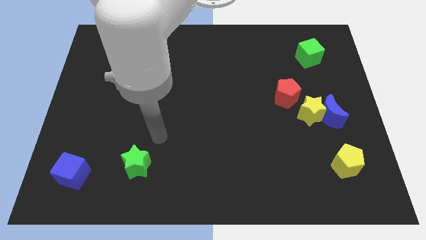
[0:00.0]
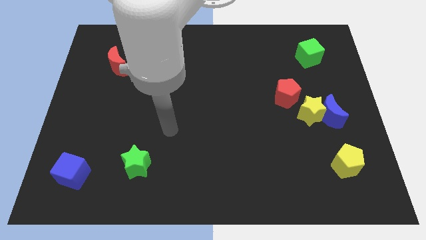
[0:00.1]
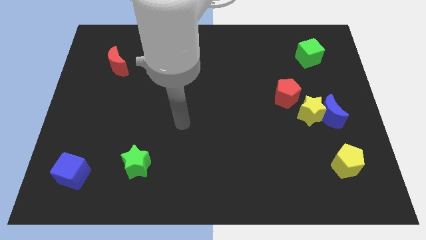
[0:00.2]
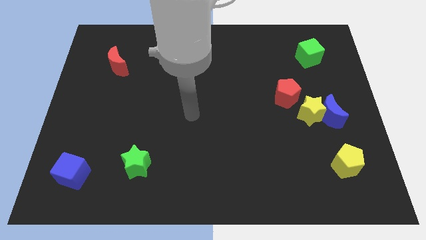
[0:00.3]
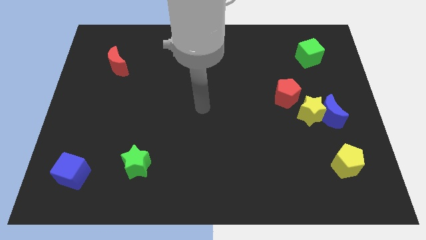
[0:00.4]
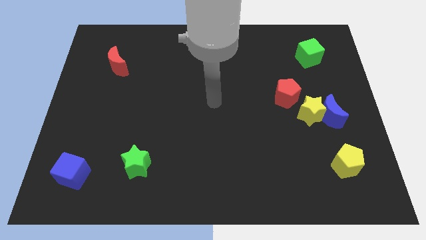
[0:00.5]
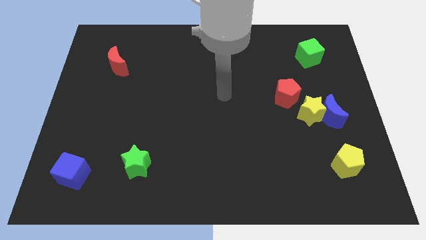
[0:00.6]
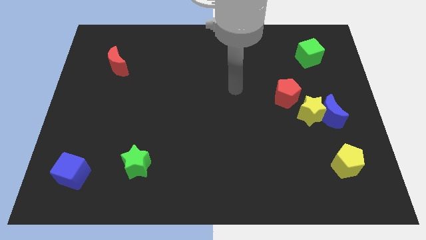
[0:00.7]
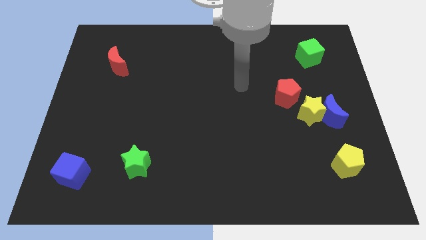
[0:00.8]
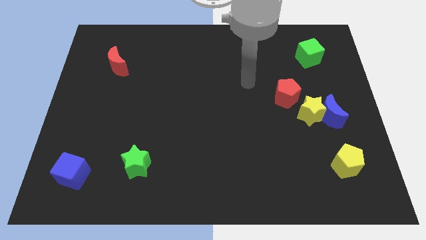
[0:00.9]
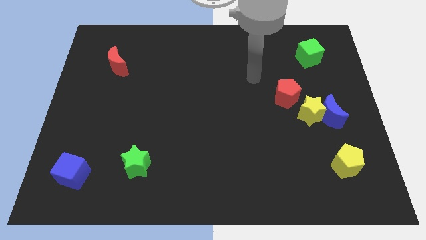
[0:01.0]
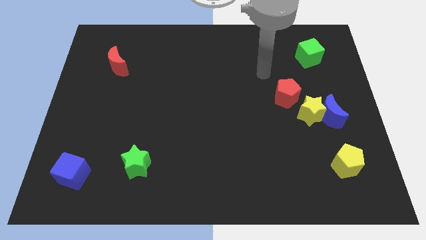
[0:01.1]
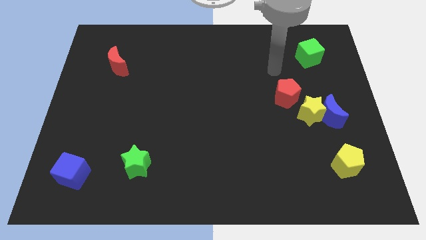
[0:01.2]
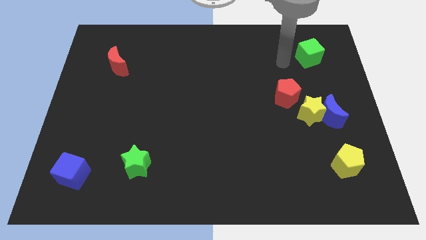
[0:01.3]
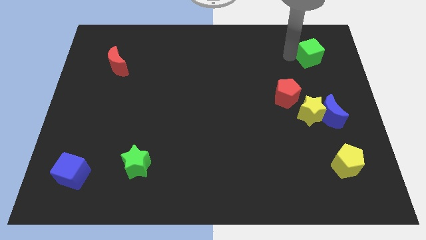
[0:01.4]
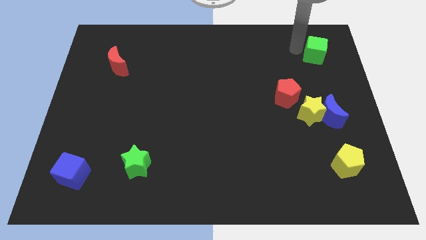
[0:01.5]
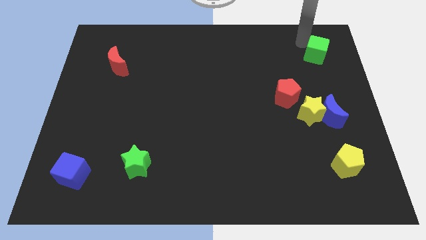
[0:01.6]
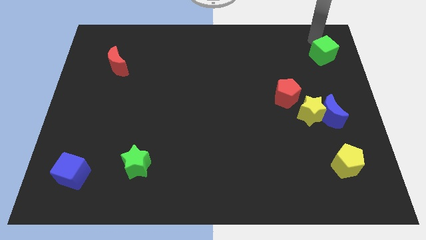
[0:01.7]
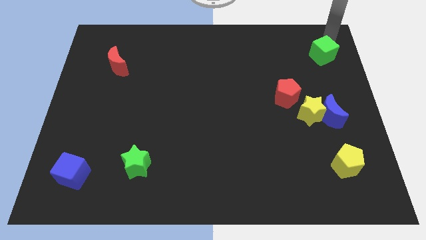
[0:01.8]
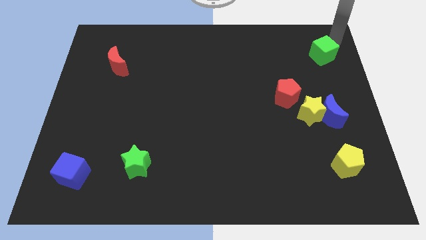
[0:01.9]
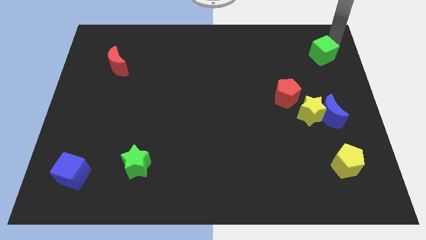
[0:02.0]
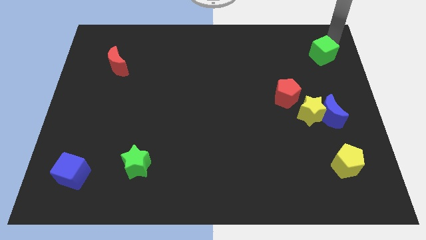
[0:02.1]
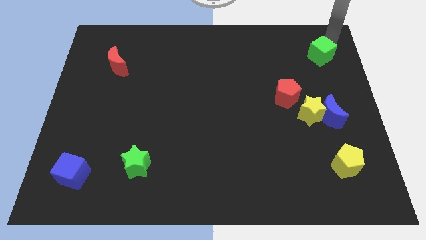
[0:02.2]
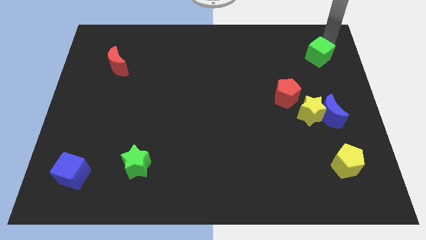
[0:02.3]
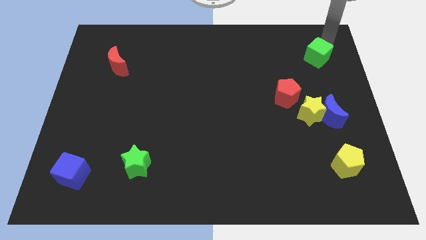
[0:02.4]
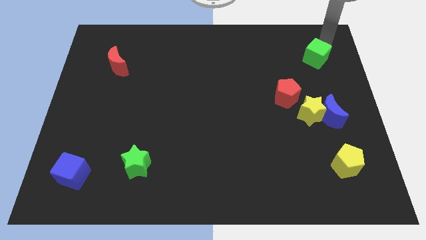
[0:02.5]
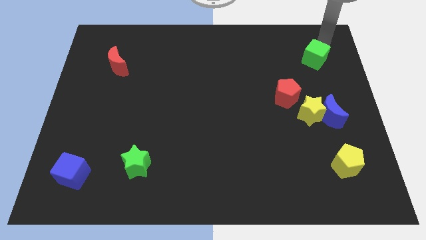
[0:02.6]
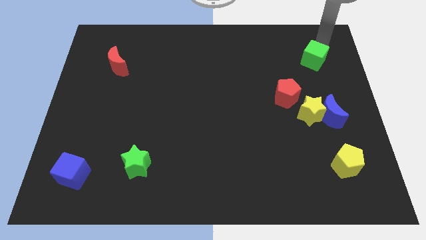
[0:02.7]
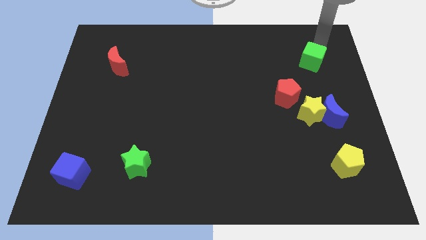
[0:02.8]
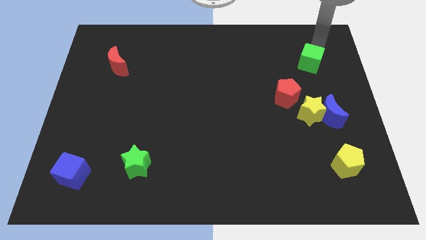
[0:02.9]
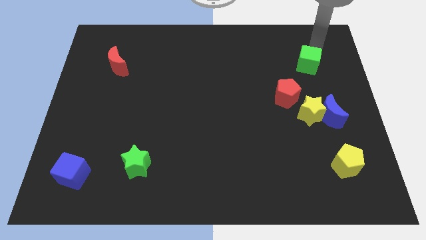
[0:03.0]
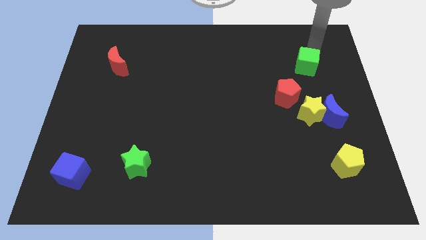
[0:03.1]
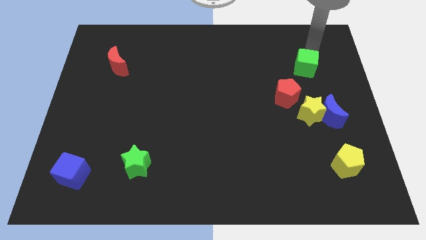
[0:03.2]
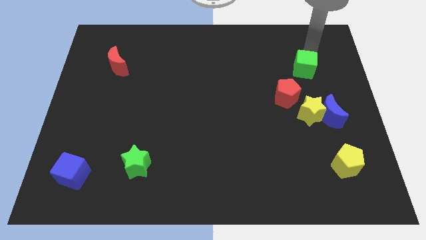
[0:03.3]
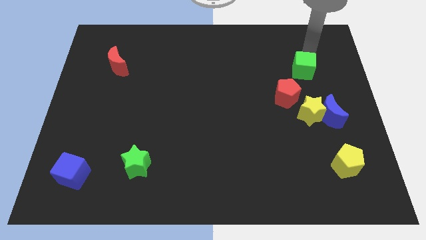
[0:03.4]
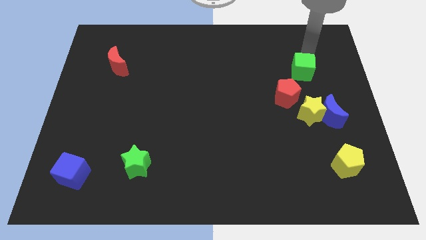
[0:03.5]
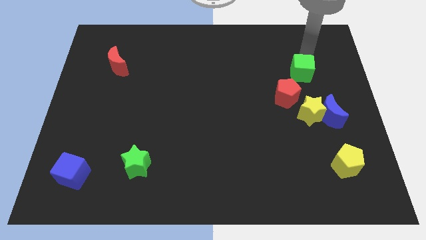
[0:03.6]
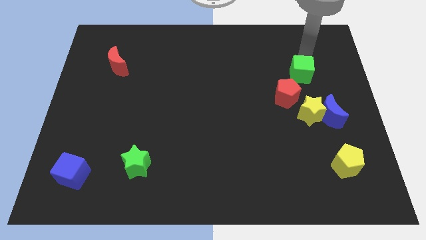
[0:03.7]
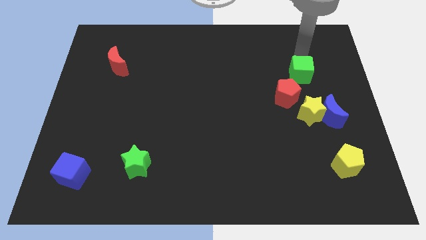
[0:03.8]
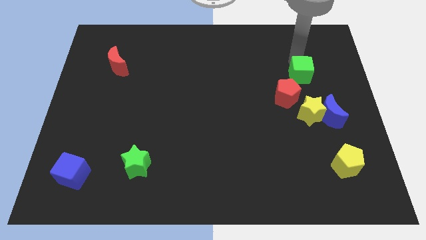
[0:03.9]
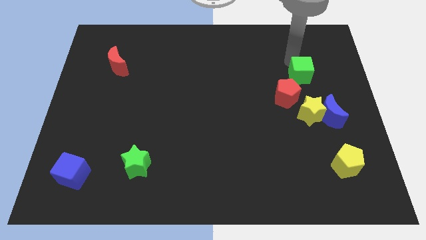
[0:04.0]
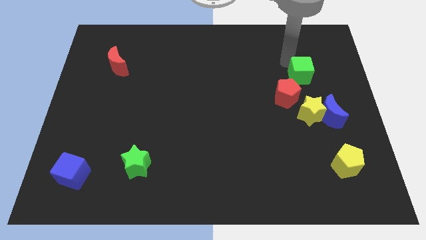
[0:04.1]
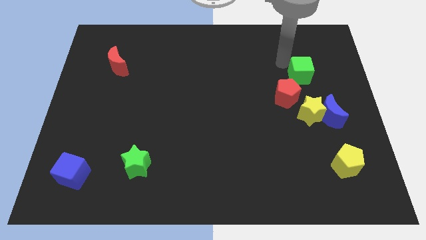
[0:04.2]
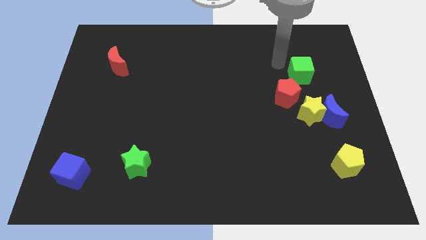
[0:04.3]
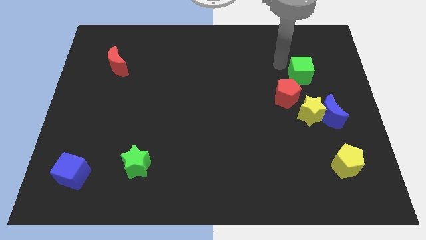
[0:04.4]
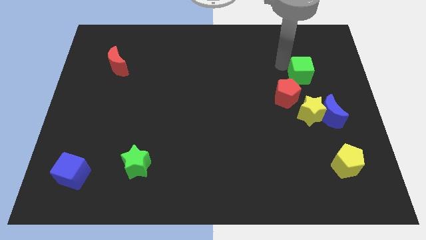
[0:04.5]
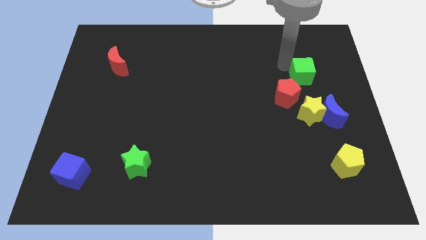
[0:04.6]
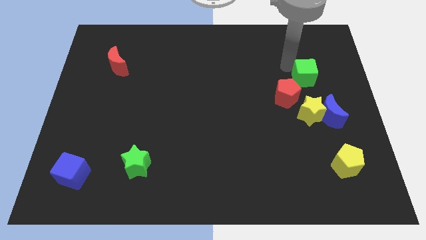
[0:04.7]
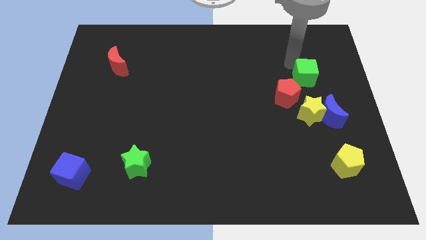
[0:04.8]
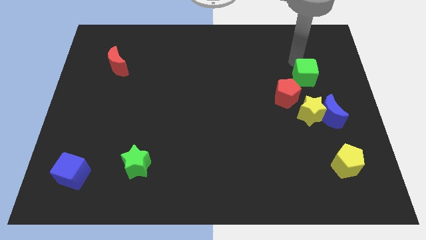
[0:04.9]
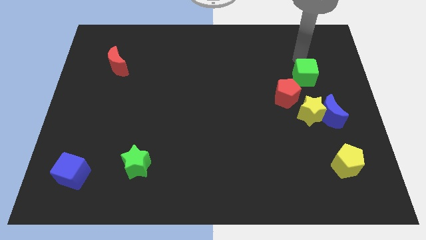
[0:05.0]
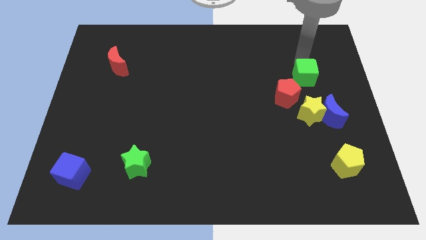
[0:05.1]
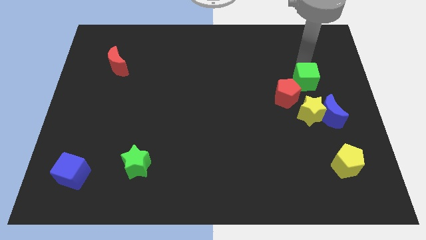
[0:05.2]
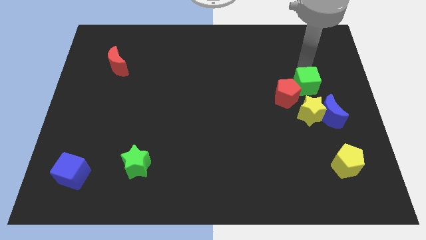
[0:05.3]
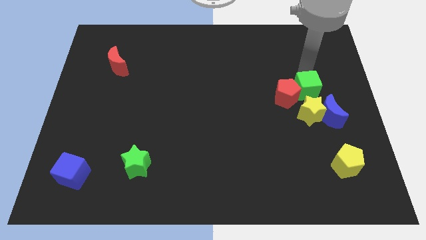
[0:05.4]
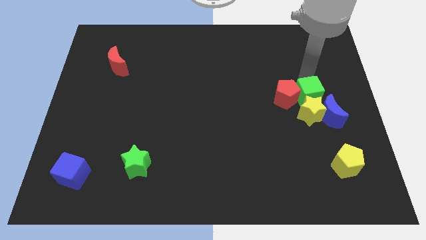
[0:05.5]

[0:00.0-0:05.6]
push the green cube towards the yellow star

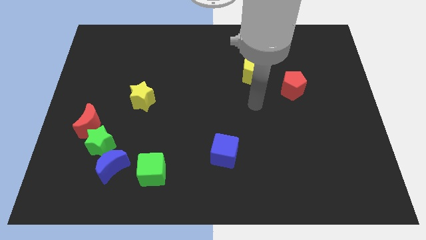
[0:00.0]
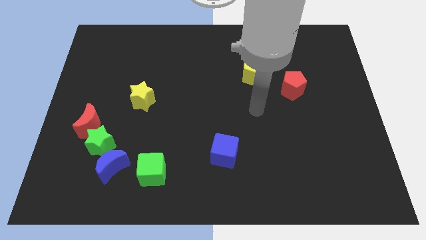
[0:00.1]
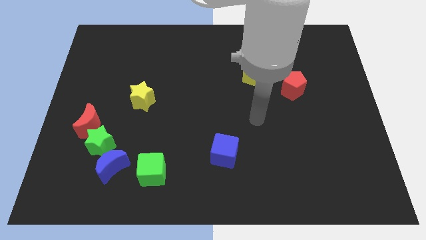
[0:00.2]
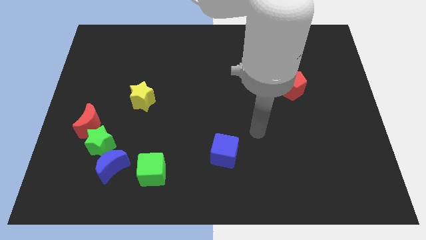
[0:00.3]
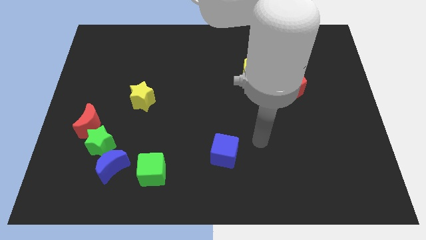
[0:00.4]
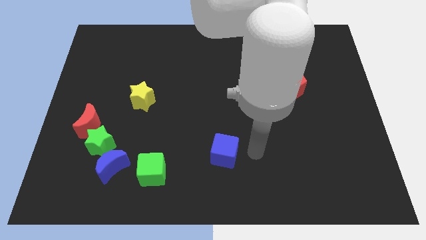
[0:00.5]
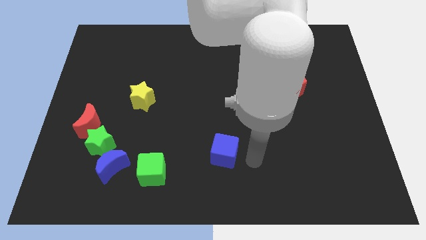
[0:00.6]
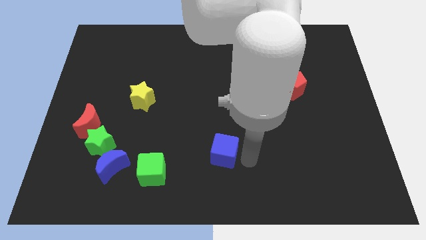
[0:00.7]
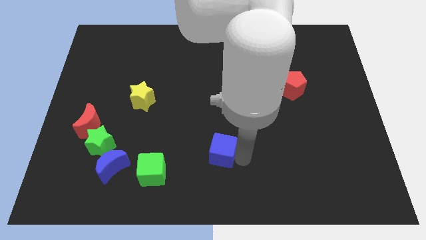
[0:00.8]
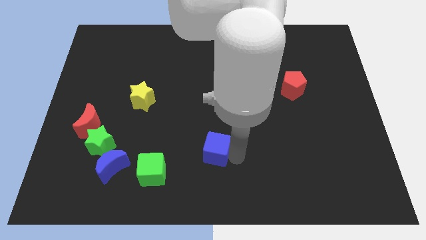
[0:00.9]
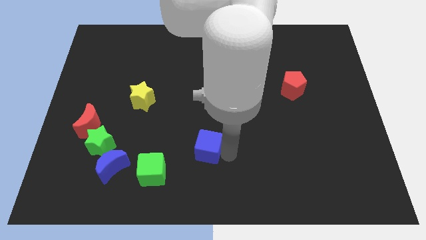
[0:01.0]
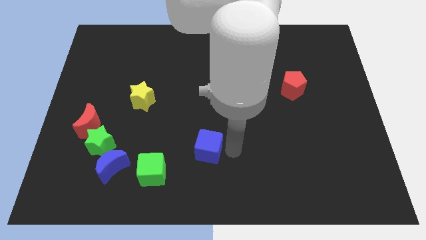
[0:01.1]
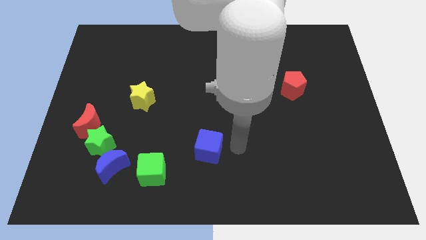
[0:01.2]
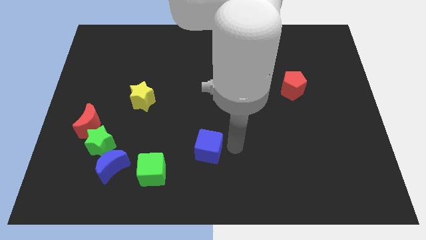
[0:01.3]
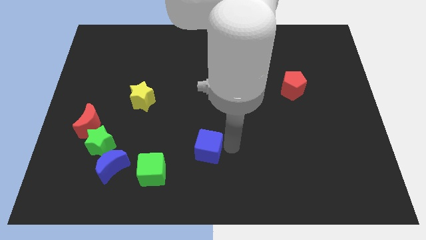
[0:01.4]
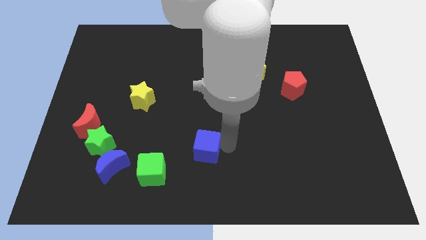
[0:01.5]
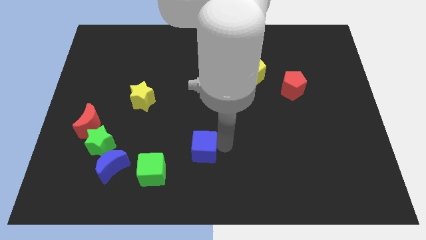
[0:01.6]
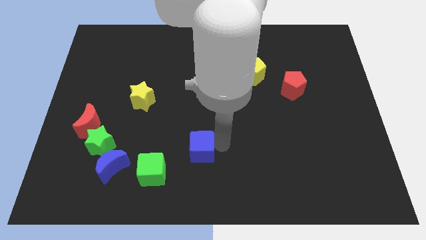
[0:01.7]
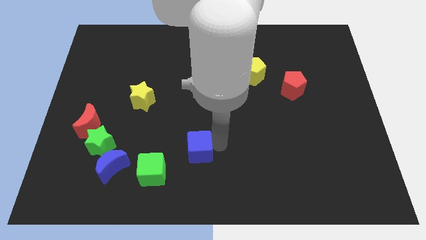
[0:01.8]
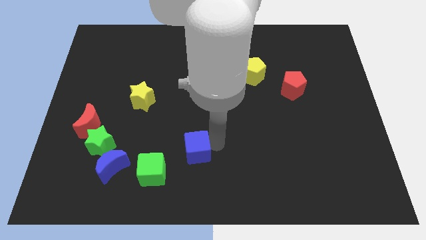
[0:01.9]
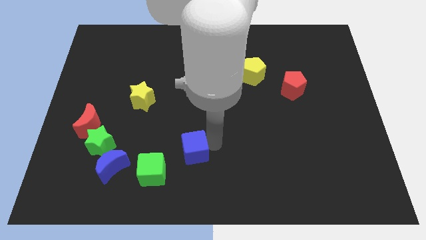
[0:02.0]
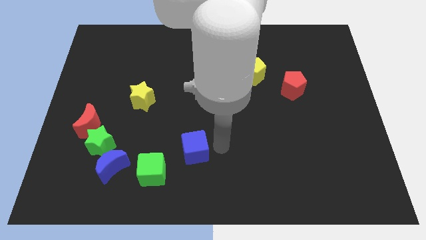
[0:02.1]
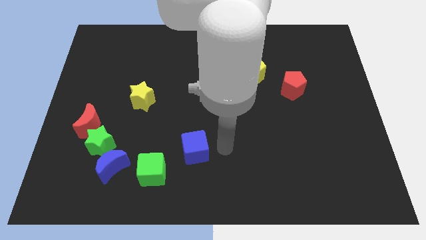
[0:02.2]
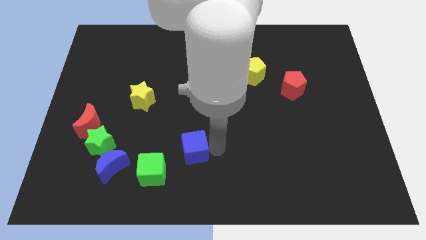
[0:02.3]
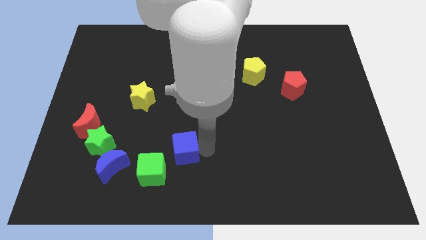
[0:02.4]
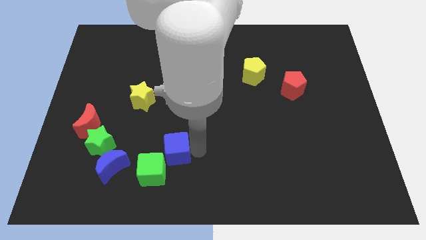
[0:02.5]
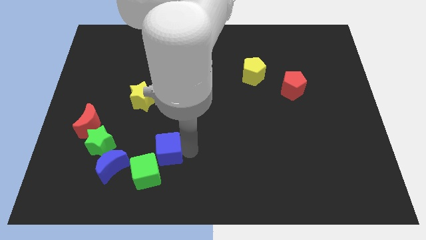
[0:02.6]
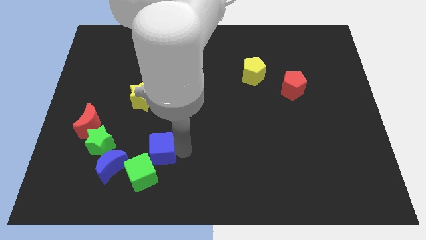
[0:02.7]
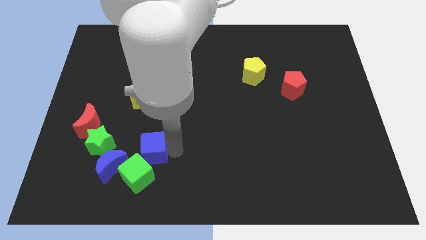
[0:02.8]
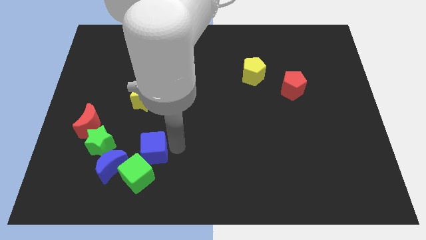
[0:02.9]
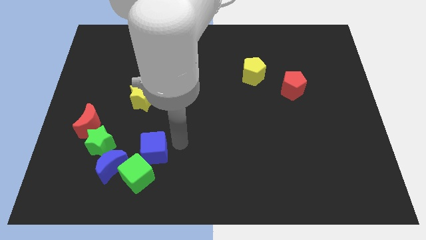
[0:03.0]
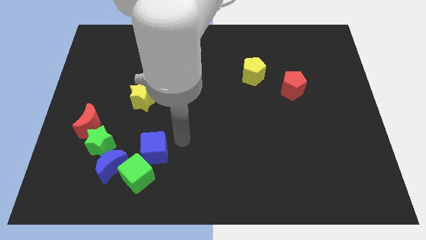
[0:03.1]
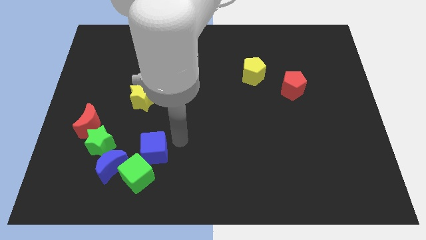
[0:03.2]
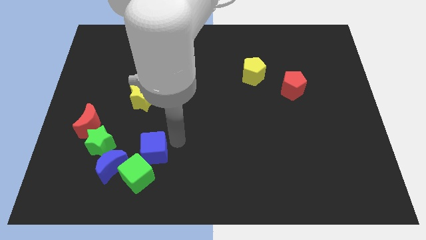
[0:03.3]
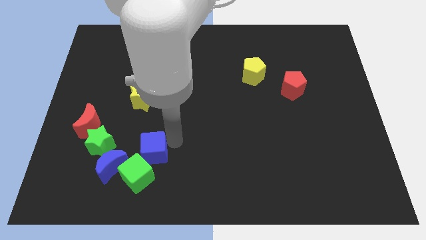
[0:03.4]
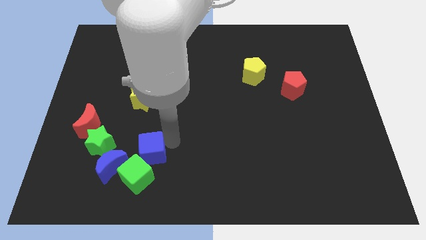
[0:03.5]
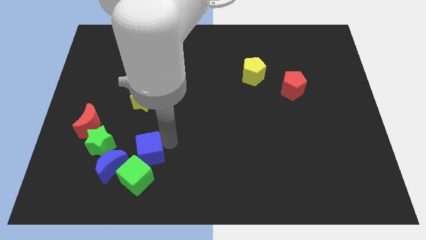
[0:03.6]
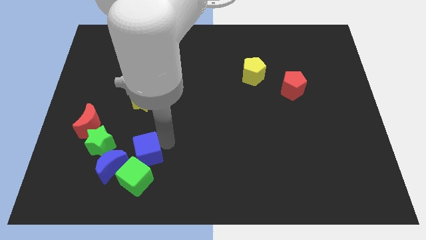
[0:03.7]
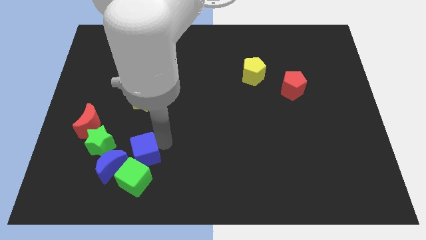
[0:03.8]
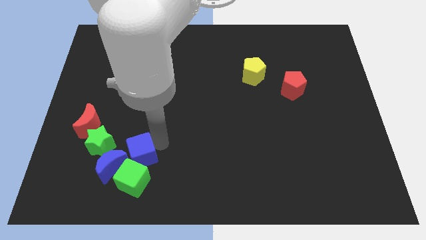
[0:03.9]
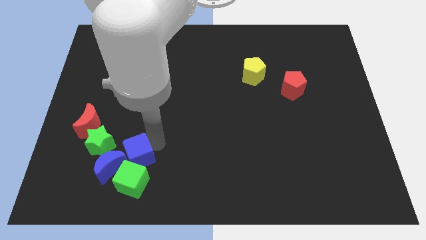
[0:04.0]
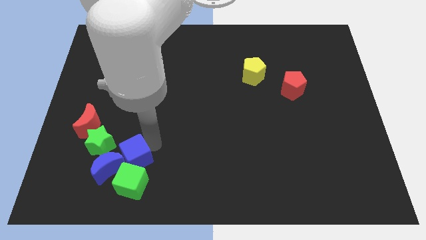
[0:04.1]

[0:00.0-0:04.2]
move the blue cube towards the blue moon
